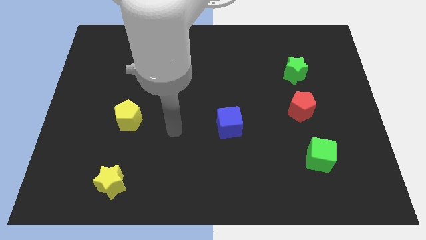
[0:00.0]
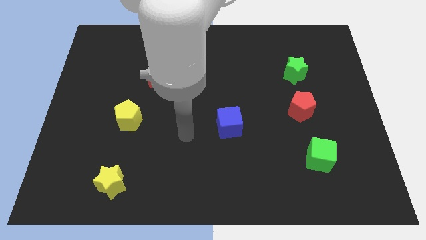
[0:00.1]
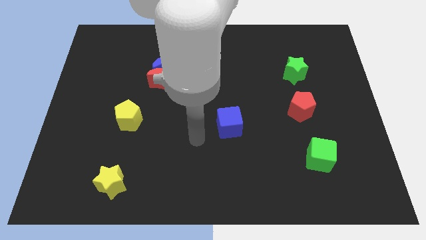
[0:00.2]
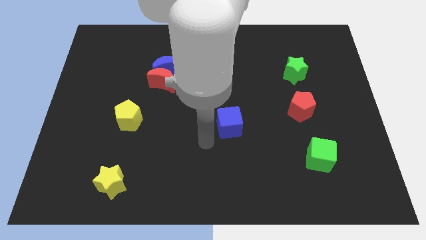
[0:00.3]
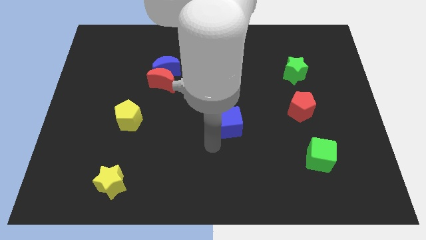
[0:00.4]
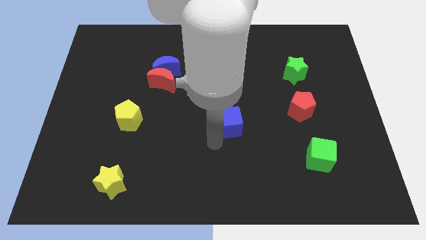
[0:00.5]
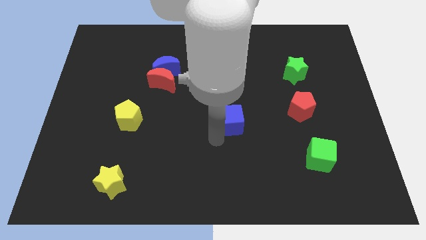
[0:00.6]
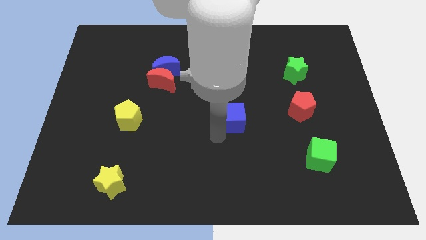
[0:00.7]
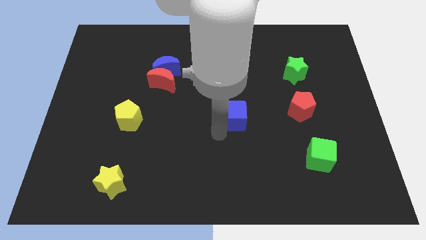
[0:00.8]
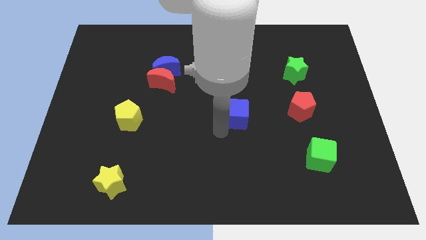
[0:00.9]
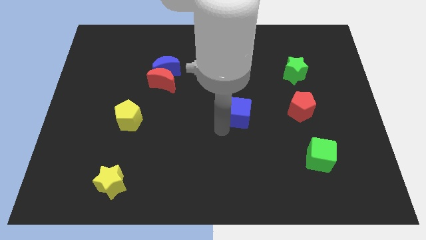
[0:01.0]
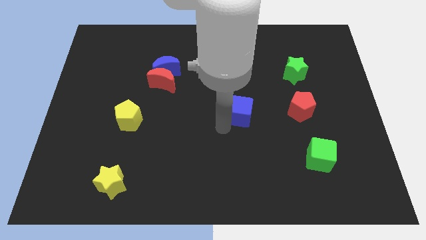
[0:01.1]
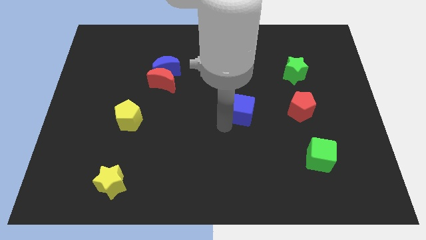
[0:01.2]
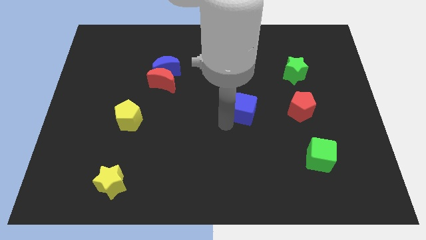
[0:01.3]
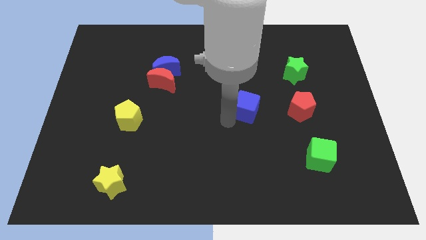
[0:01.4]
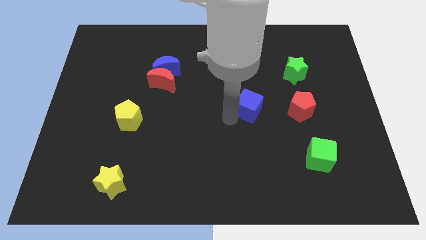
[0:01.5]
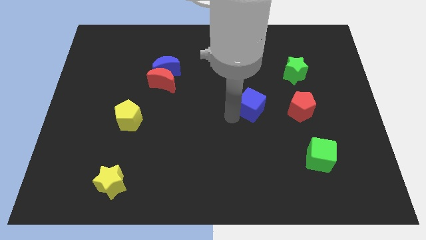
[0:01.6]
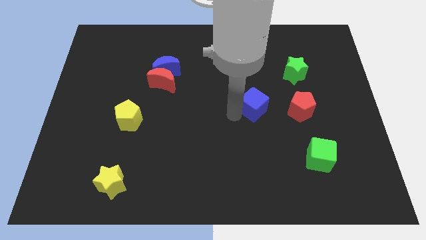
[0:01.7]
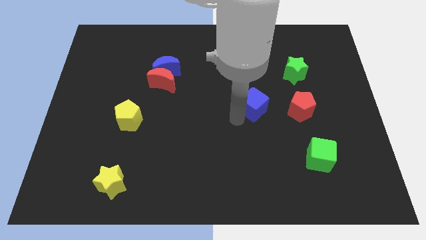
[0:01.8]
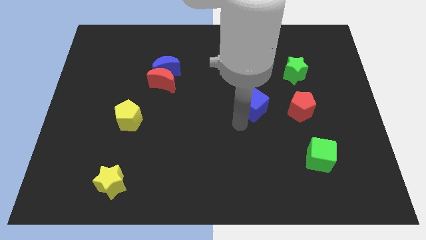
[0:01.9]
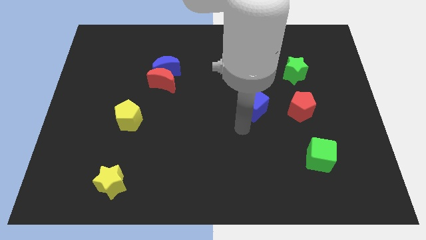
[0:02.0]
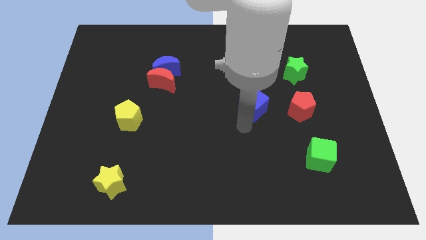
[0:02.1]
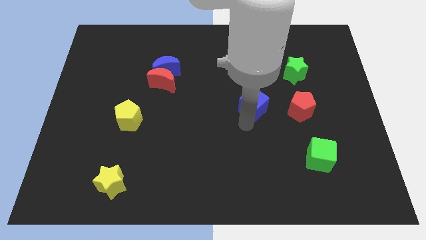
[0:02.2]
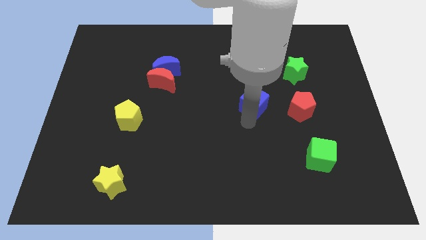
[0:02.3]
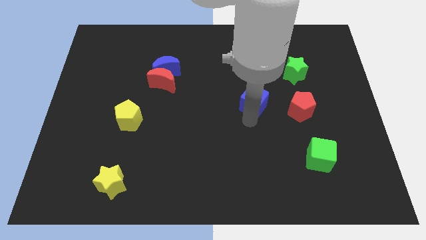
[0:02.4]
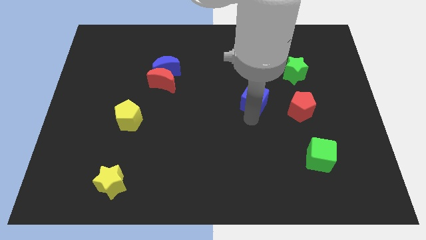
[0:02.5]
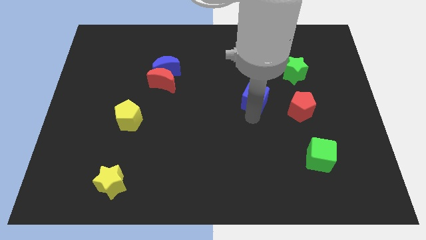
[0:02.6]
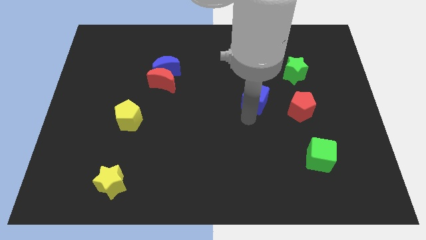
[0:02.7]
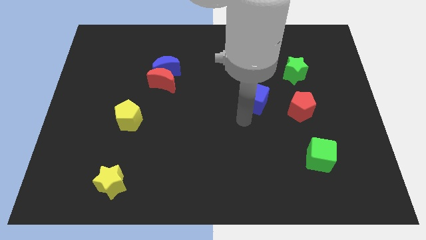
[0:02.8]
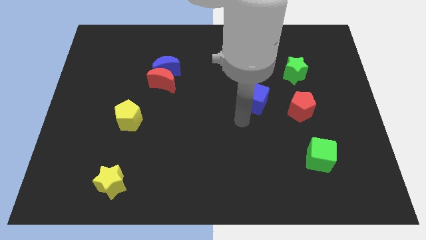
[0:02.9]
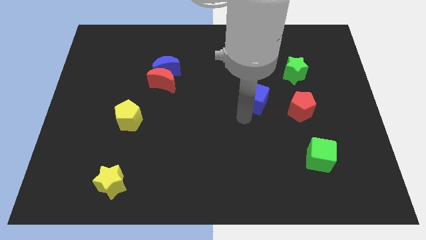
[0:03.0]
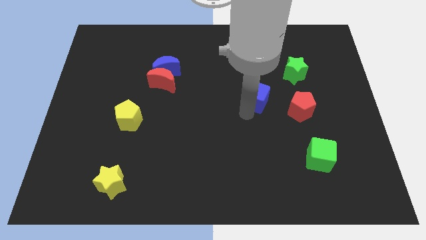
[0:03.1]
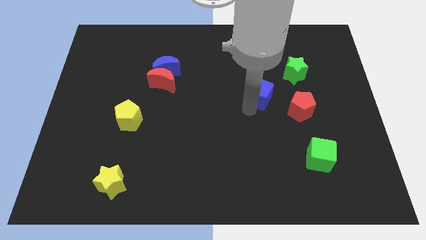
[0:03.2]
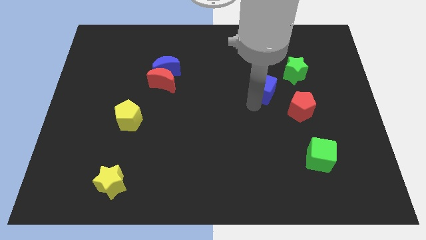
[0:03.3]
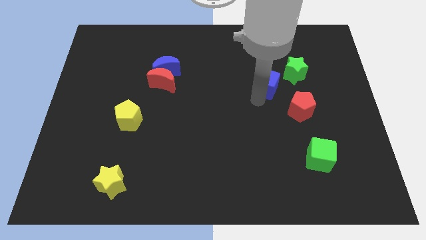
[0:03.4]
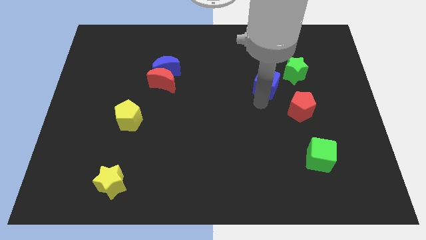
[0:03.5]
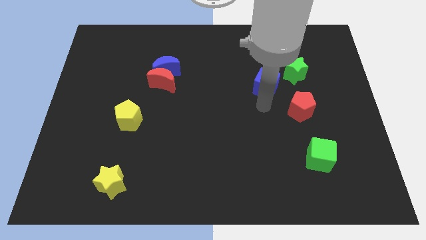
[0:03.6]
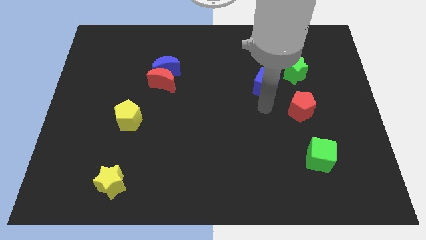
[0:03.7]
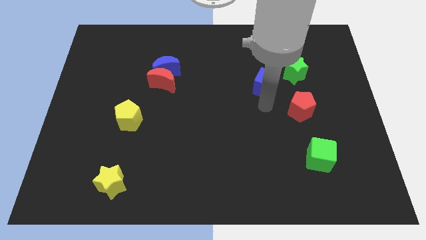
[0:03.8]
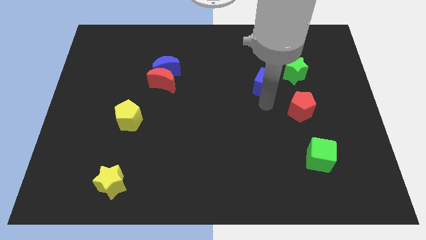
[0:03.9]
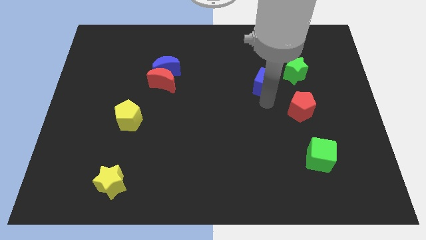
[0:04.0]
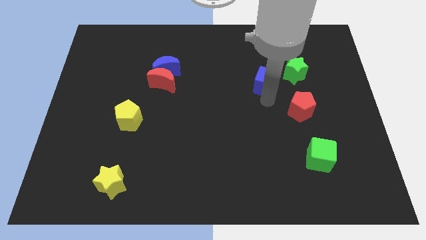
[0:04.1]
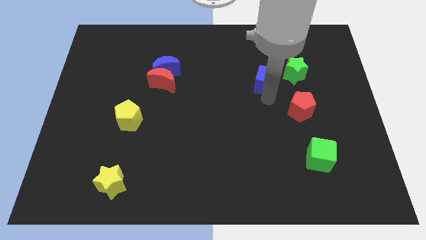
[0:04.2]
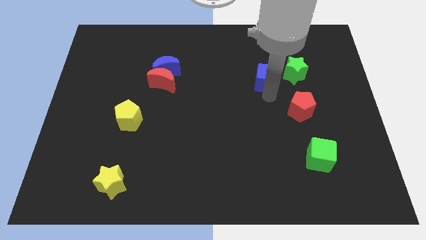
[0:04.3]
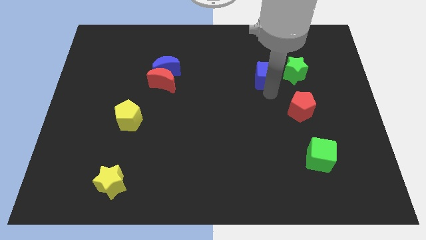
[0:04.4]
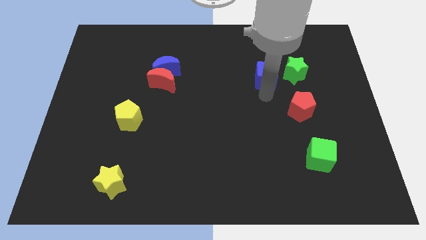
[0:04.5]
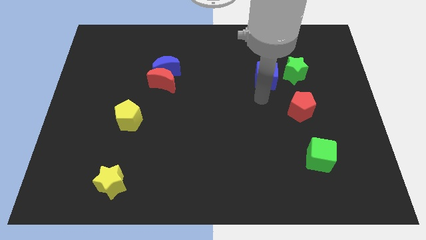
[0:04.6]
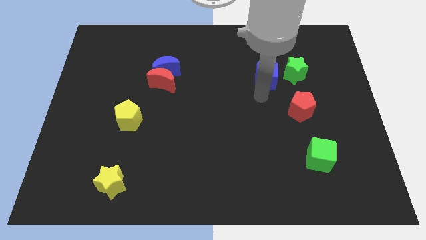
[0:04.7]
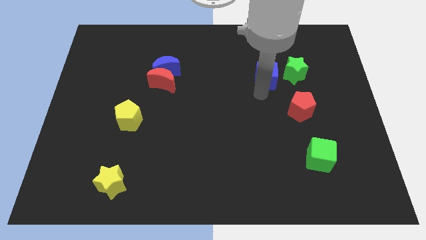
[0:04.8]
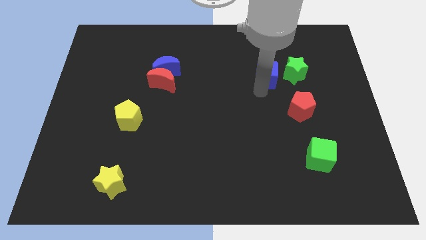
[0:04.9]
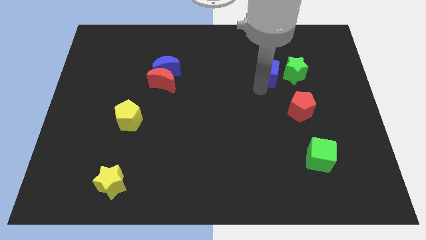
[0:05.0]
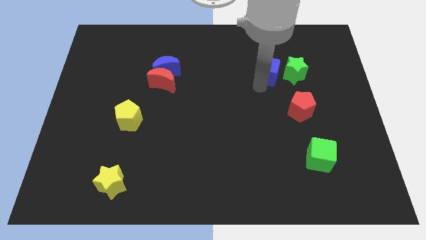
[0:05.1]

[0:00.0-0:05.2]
push the blue cube diagonally up and to the left of the green star

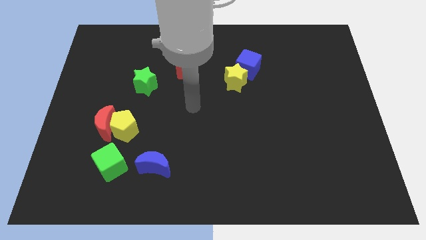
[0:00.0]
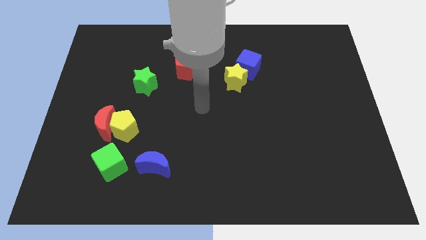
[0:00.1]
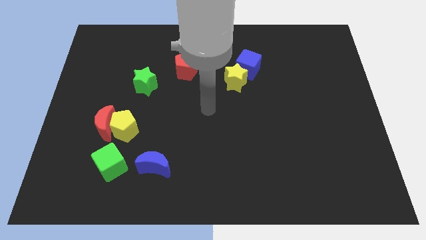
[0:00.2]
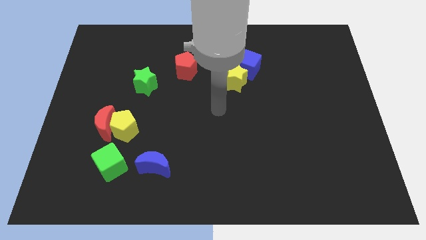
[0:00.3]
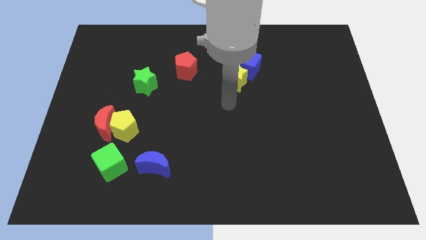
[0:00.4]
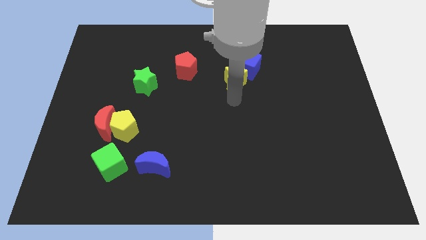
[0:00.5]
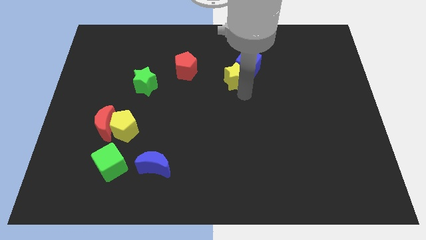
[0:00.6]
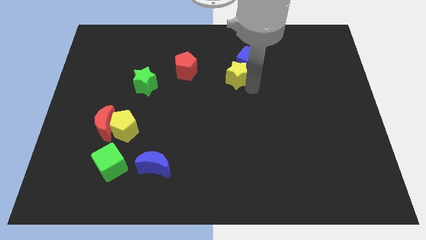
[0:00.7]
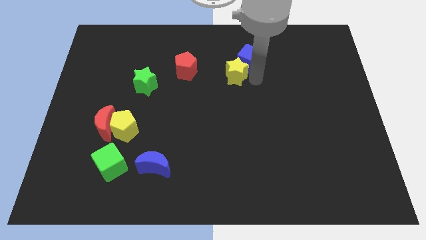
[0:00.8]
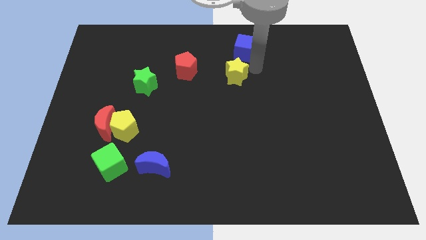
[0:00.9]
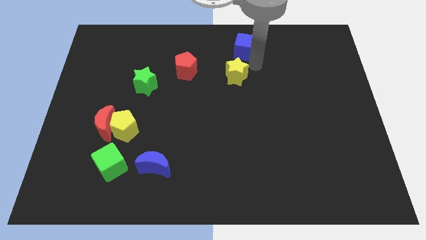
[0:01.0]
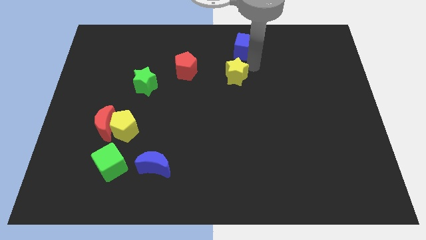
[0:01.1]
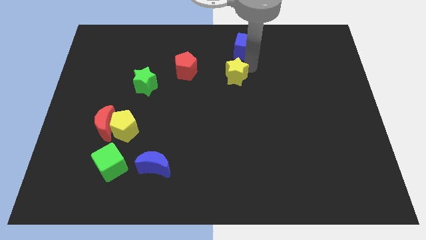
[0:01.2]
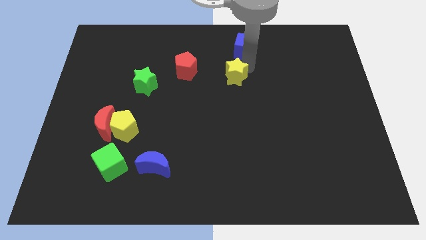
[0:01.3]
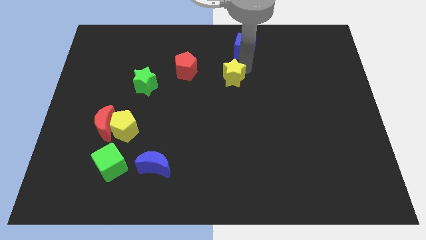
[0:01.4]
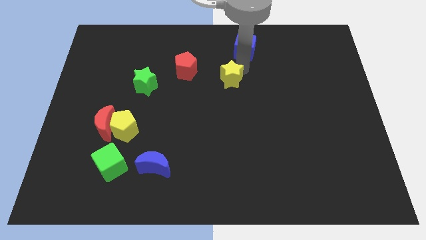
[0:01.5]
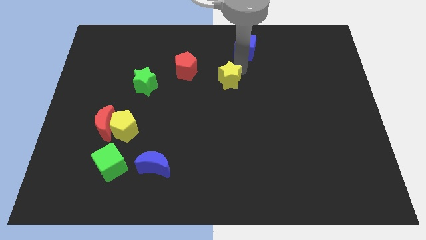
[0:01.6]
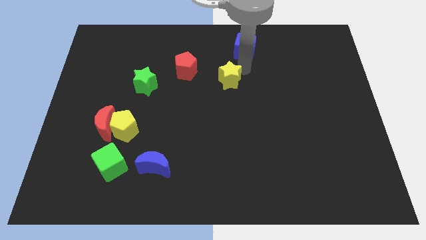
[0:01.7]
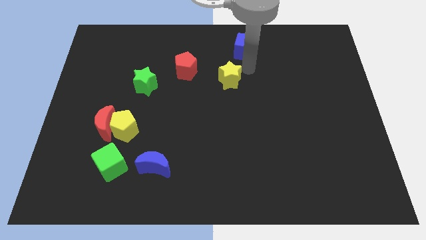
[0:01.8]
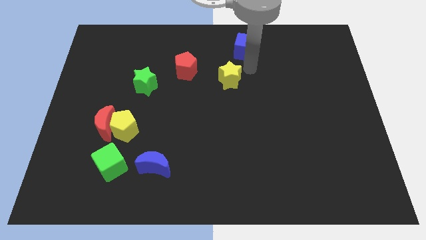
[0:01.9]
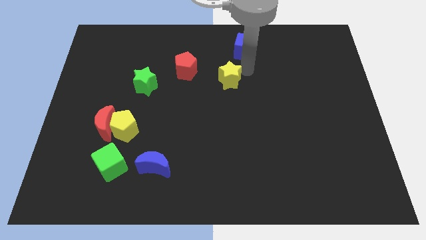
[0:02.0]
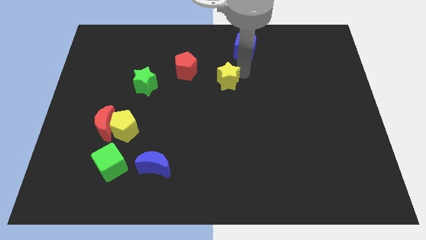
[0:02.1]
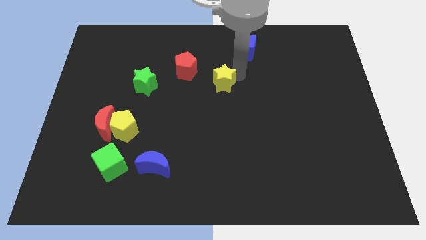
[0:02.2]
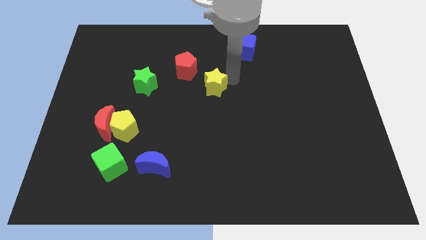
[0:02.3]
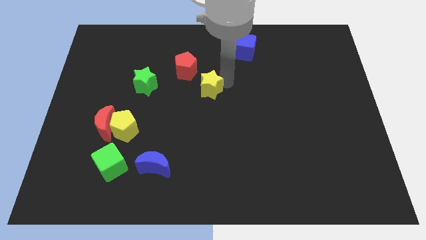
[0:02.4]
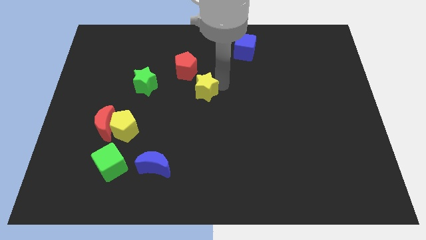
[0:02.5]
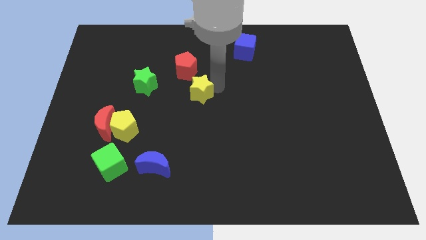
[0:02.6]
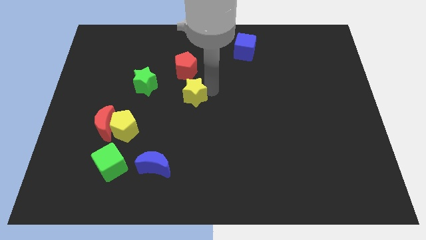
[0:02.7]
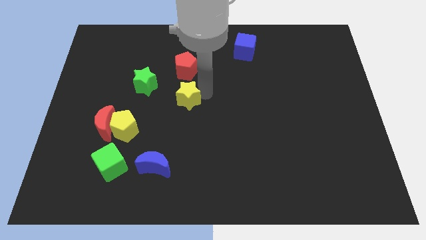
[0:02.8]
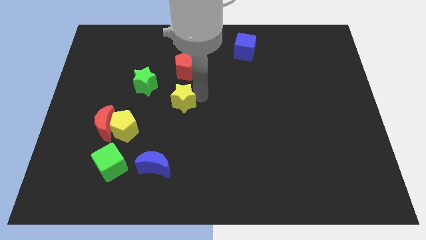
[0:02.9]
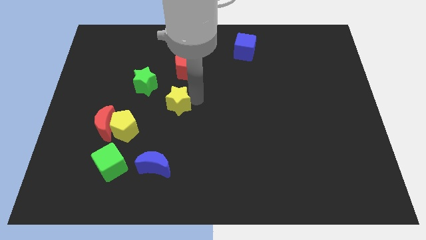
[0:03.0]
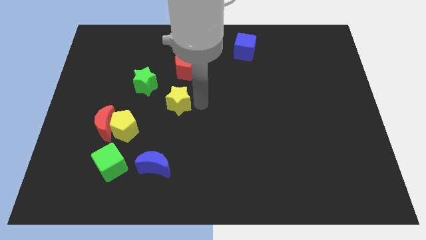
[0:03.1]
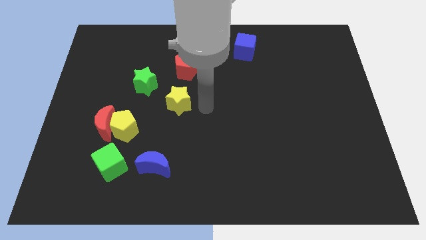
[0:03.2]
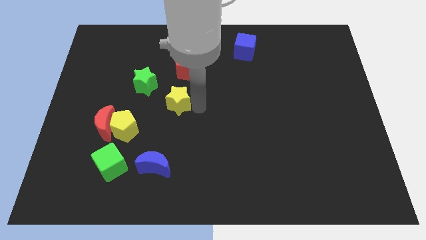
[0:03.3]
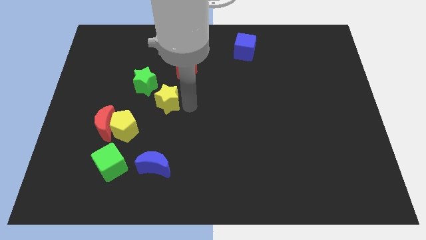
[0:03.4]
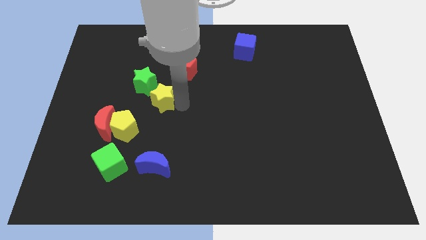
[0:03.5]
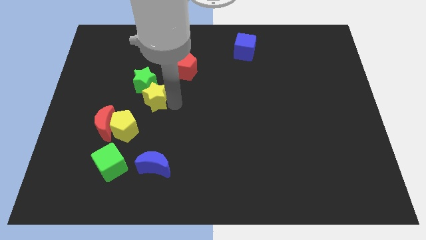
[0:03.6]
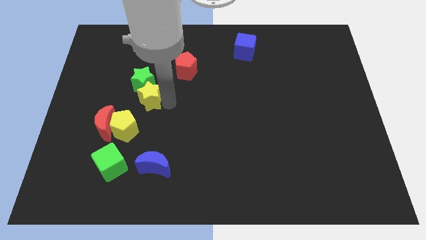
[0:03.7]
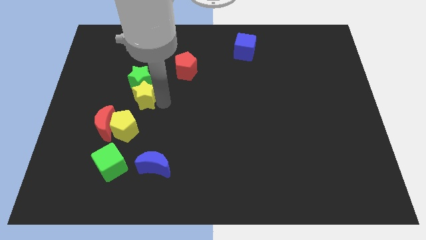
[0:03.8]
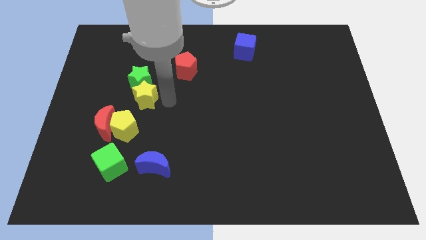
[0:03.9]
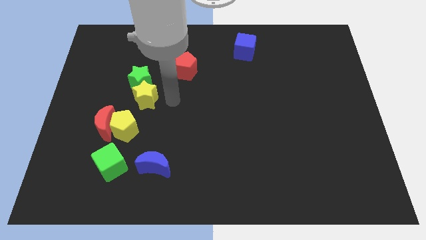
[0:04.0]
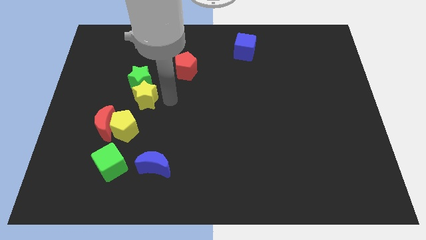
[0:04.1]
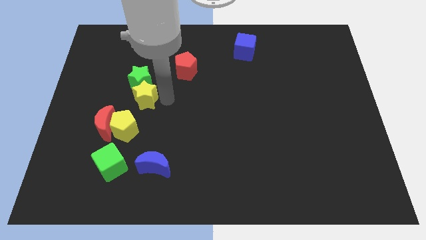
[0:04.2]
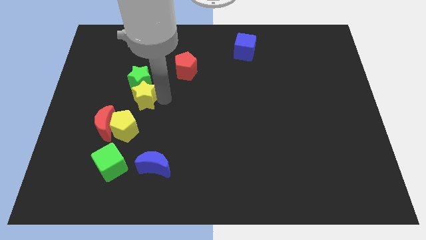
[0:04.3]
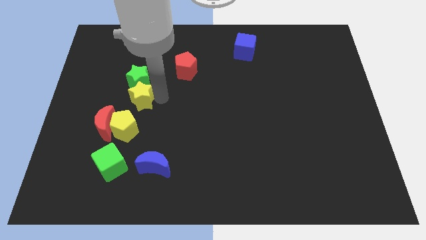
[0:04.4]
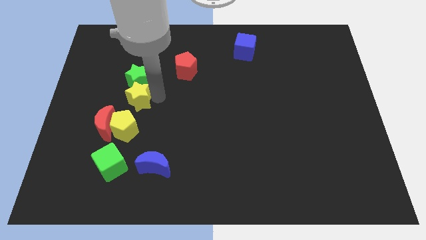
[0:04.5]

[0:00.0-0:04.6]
push the yellow star diagonally down and to the left of the green star
